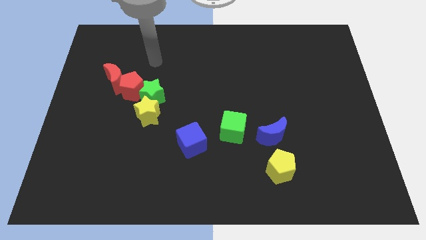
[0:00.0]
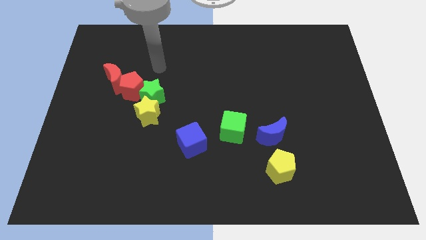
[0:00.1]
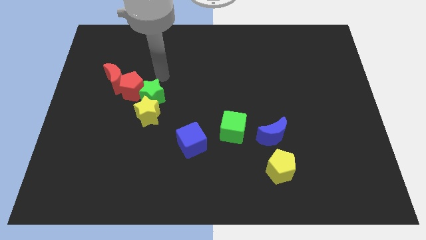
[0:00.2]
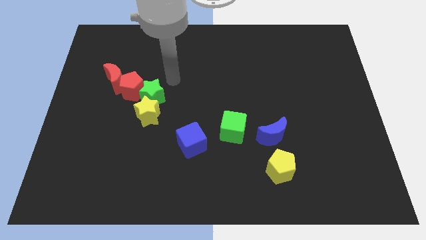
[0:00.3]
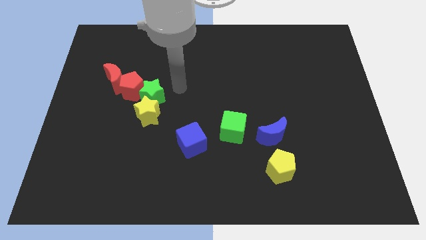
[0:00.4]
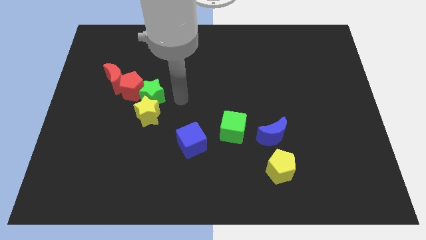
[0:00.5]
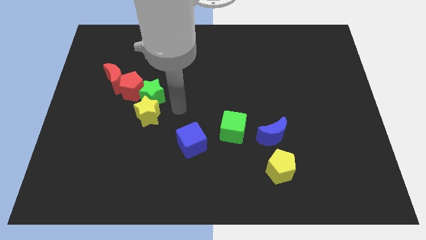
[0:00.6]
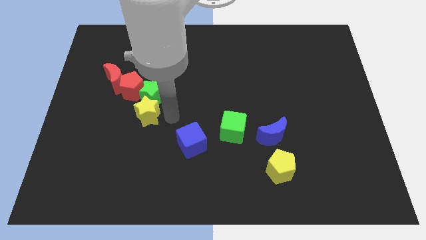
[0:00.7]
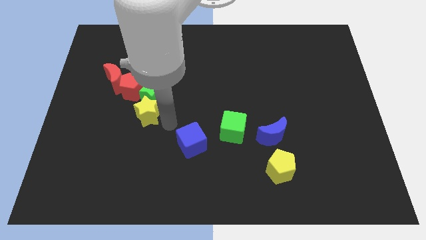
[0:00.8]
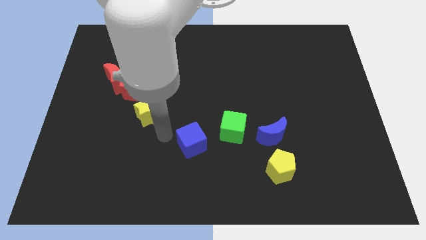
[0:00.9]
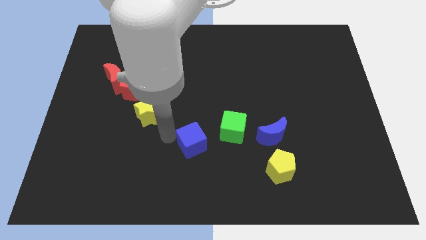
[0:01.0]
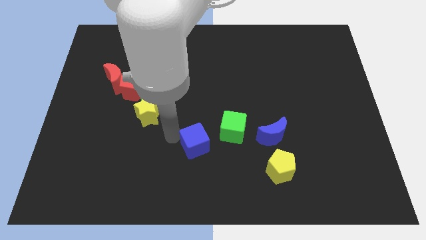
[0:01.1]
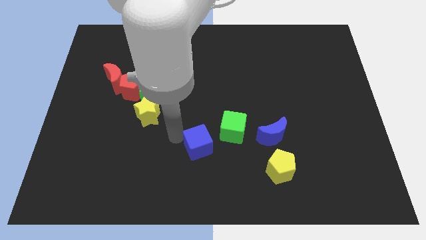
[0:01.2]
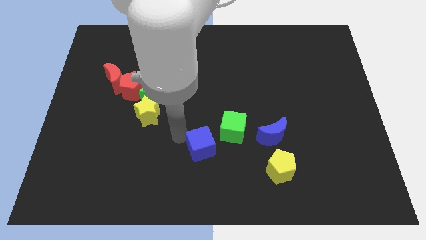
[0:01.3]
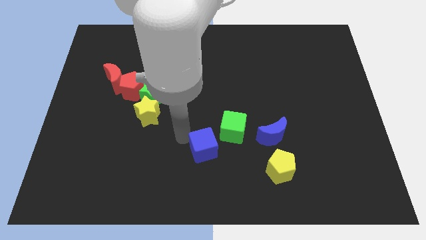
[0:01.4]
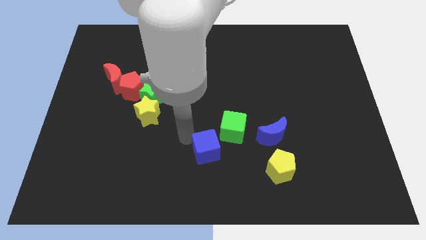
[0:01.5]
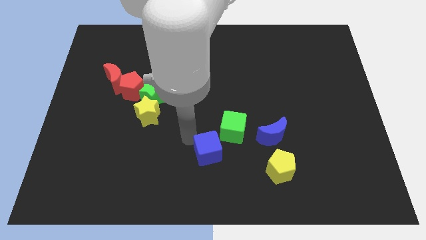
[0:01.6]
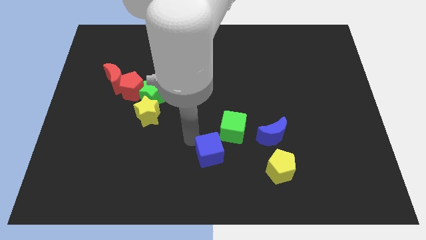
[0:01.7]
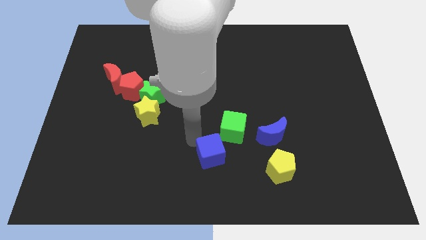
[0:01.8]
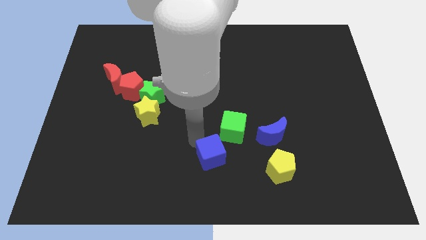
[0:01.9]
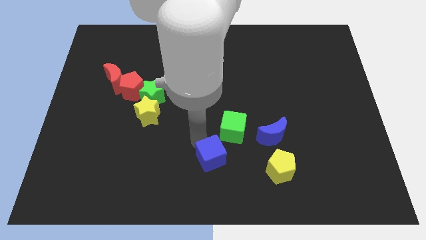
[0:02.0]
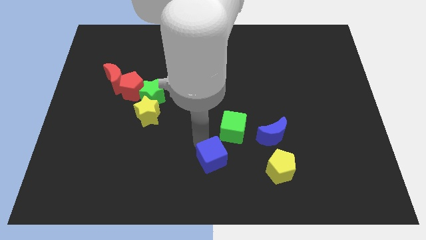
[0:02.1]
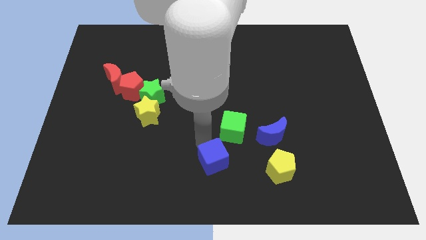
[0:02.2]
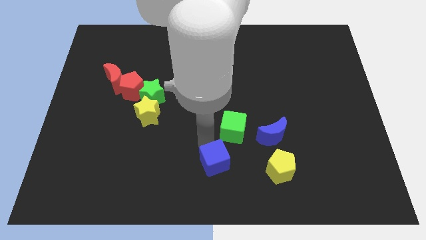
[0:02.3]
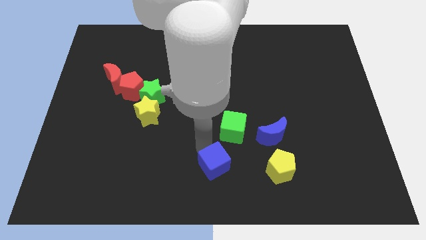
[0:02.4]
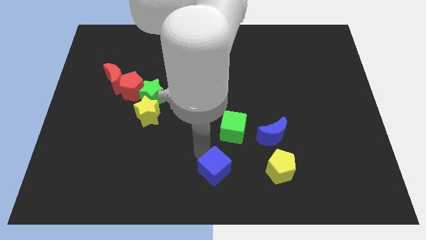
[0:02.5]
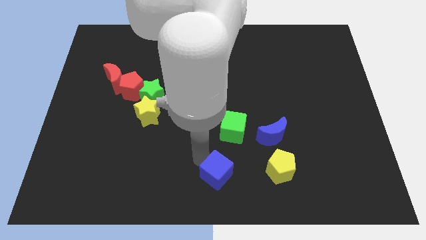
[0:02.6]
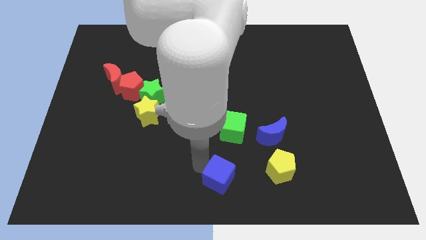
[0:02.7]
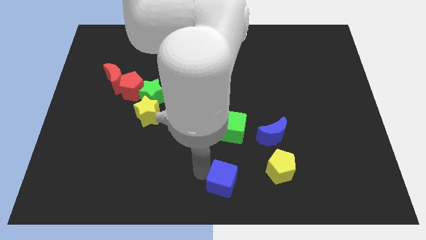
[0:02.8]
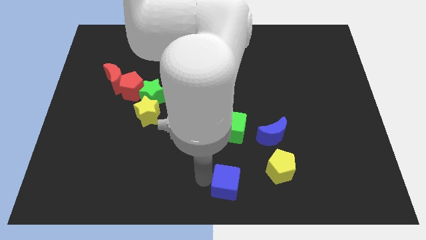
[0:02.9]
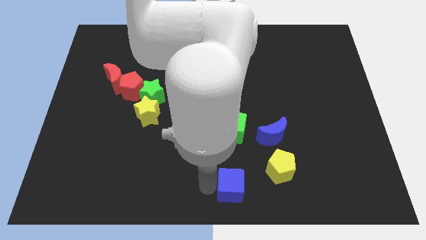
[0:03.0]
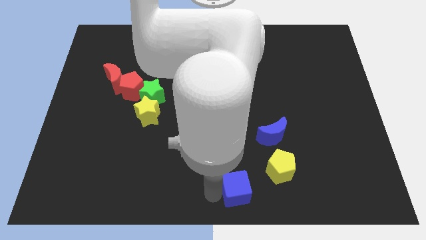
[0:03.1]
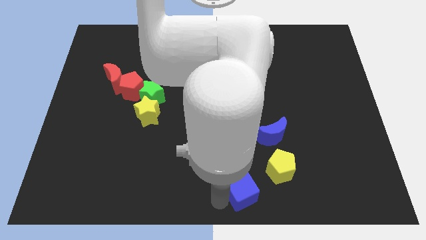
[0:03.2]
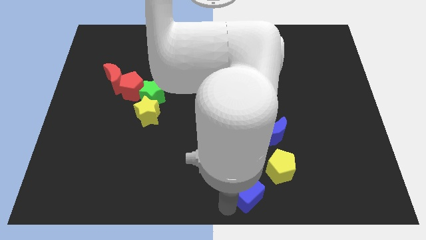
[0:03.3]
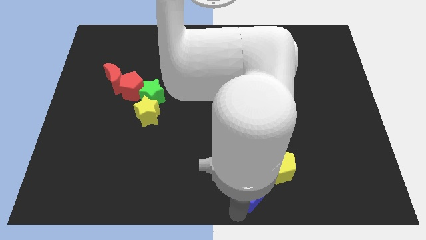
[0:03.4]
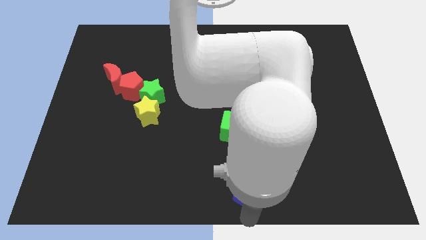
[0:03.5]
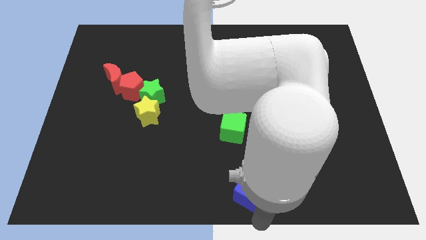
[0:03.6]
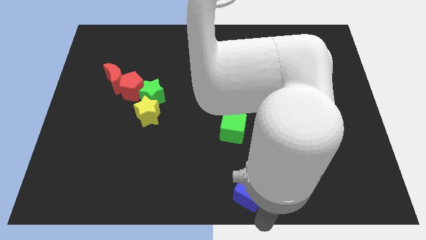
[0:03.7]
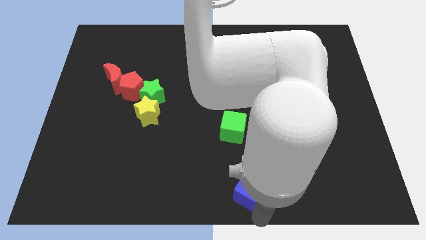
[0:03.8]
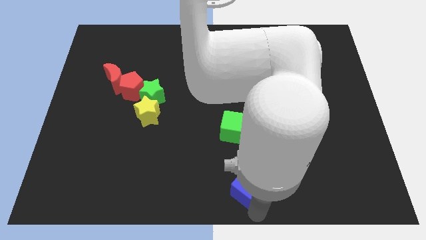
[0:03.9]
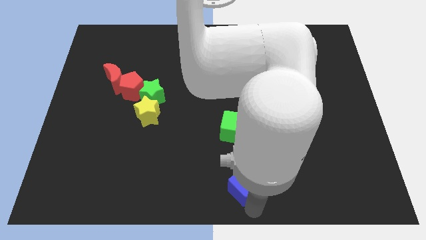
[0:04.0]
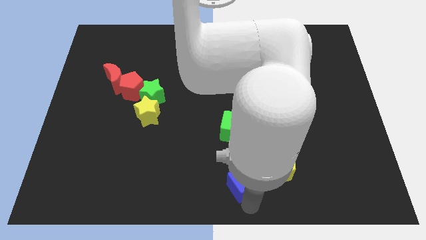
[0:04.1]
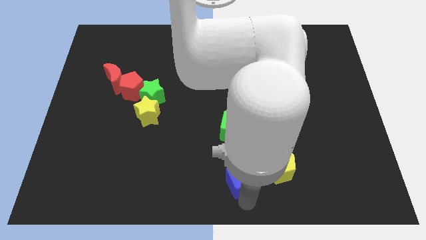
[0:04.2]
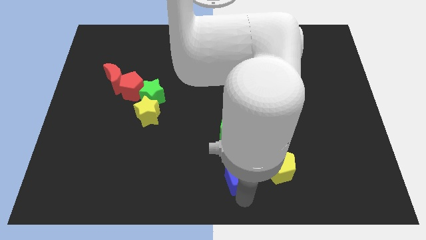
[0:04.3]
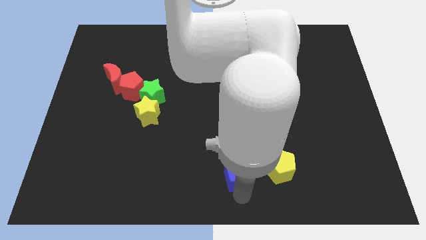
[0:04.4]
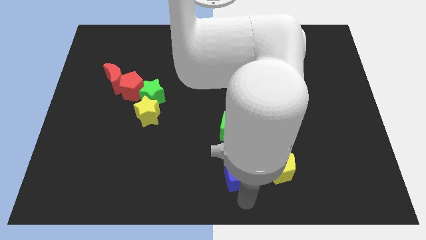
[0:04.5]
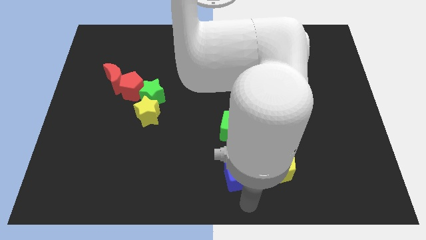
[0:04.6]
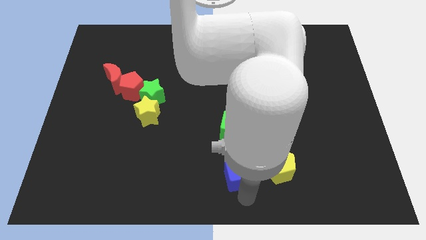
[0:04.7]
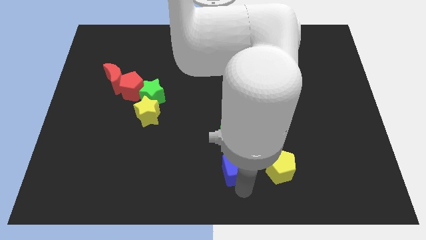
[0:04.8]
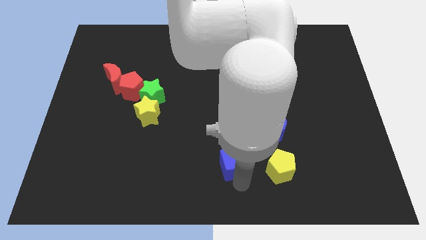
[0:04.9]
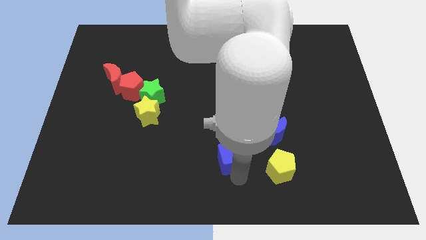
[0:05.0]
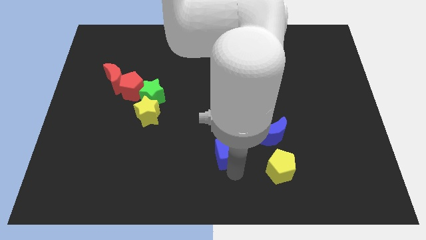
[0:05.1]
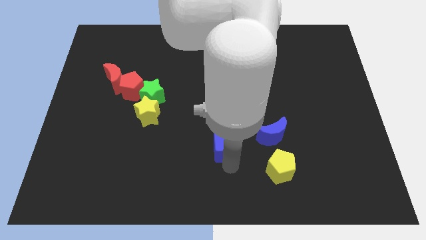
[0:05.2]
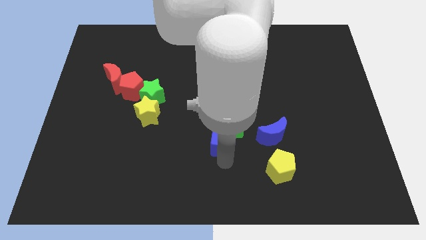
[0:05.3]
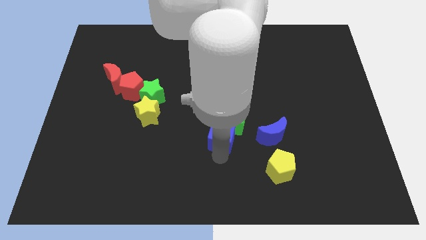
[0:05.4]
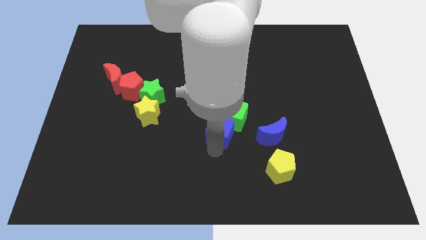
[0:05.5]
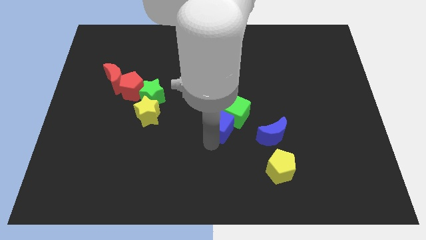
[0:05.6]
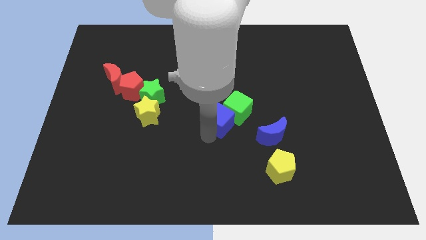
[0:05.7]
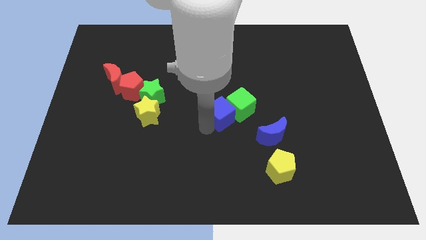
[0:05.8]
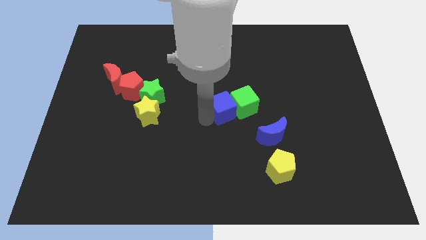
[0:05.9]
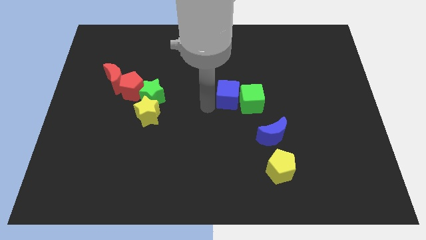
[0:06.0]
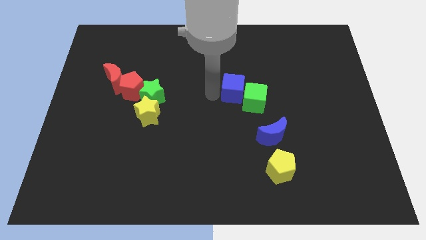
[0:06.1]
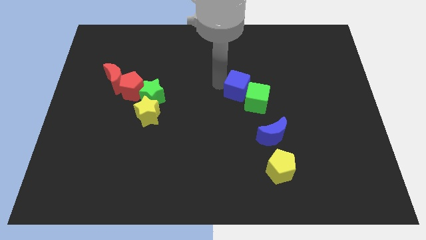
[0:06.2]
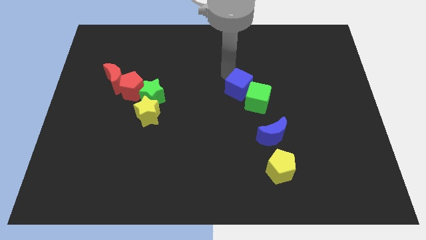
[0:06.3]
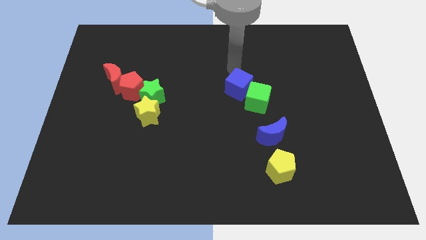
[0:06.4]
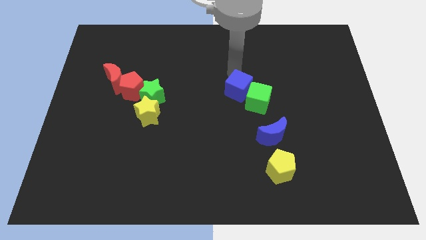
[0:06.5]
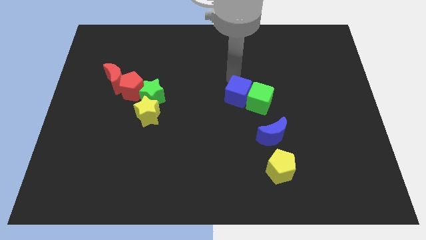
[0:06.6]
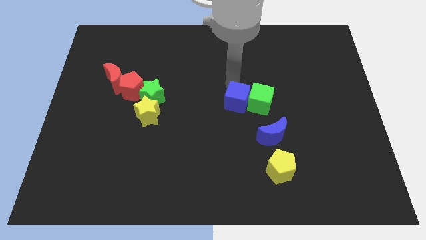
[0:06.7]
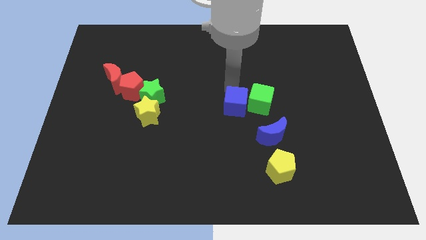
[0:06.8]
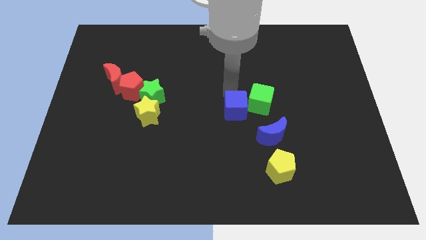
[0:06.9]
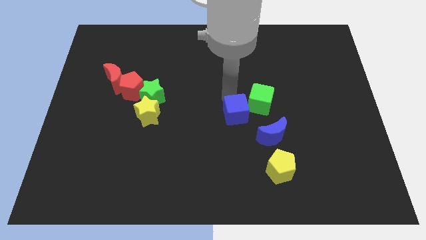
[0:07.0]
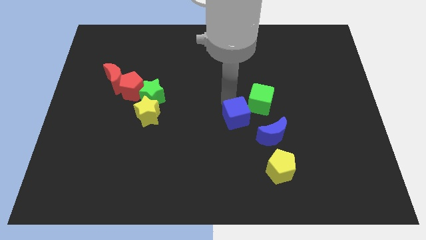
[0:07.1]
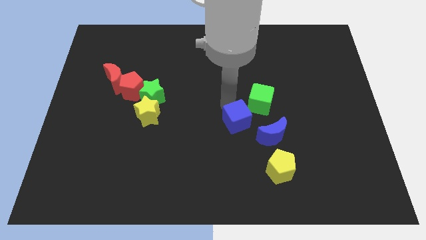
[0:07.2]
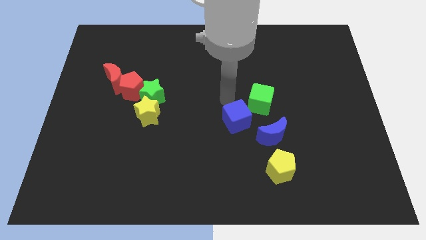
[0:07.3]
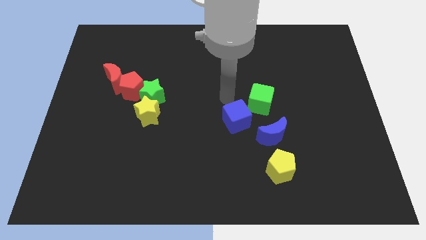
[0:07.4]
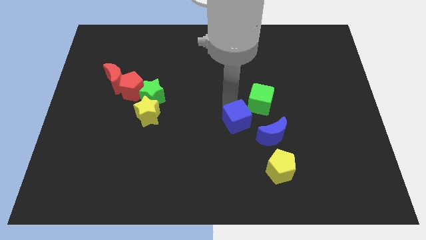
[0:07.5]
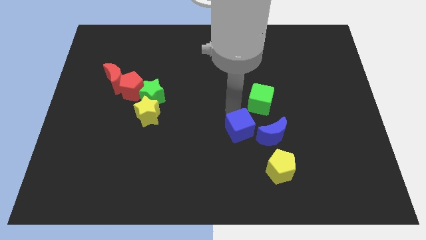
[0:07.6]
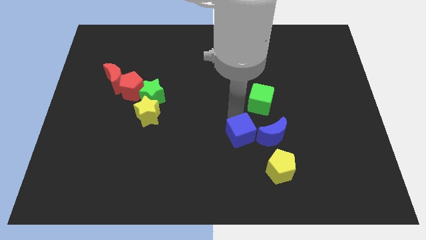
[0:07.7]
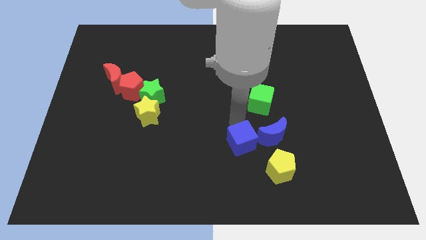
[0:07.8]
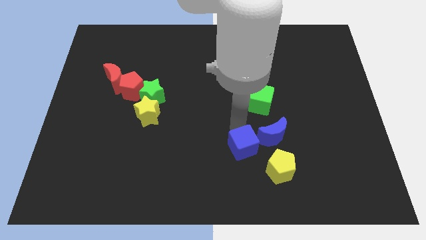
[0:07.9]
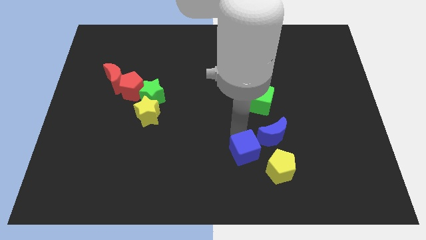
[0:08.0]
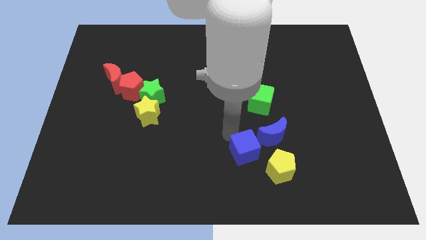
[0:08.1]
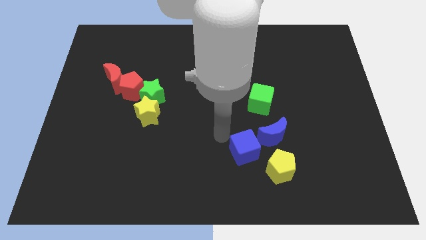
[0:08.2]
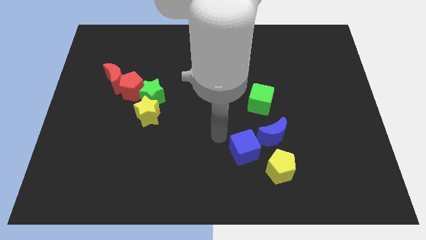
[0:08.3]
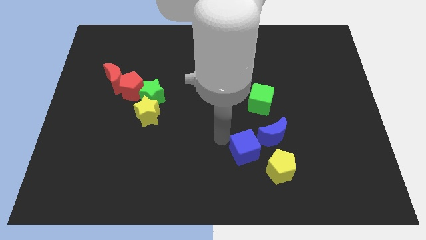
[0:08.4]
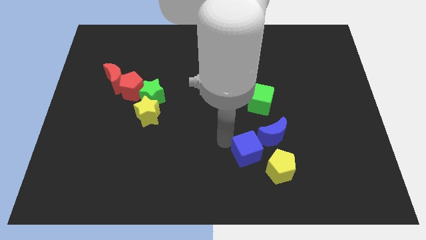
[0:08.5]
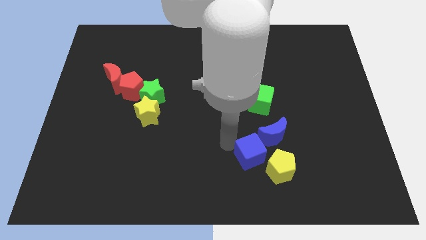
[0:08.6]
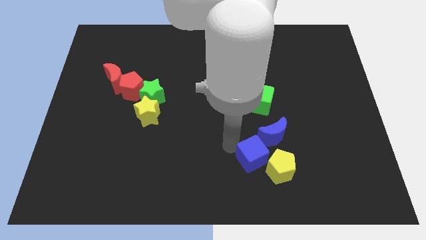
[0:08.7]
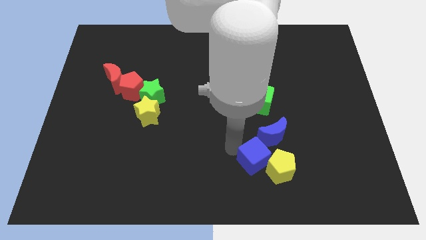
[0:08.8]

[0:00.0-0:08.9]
put the blue cube close to the yellow pentagon
